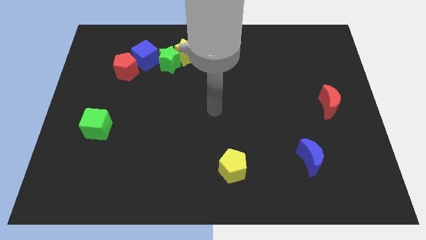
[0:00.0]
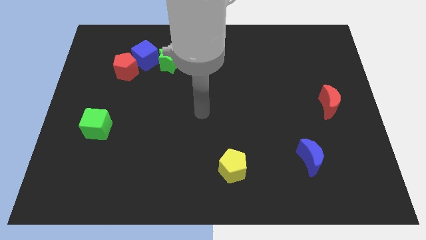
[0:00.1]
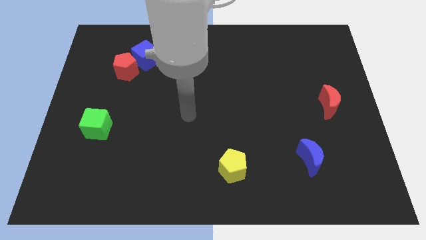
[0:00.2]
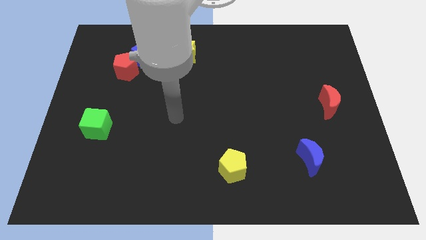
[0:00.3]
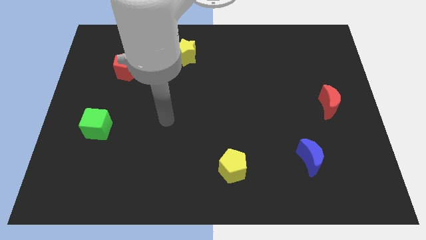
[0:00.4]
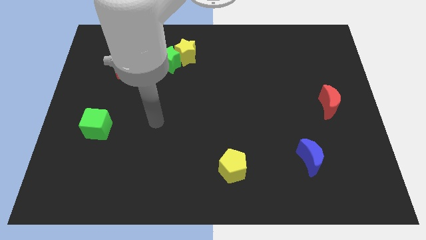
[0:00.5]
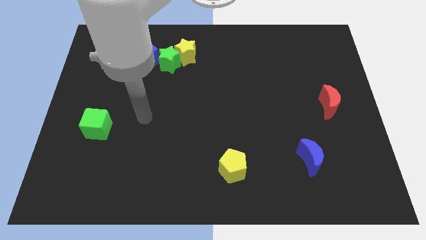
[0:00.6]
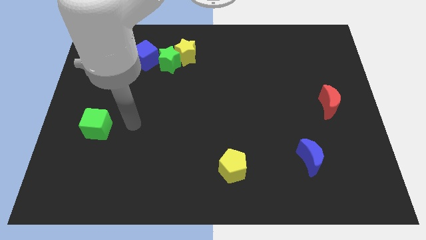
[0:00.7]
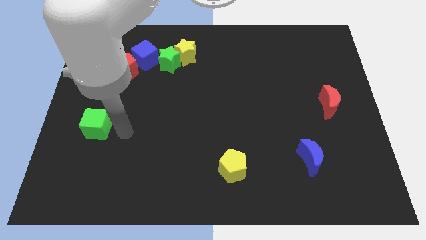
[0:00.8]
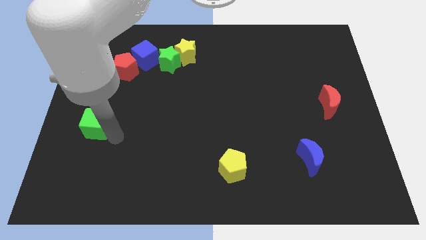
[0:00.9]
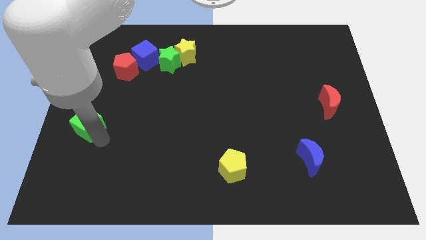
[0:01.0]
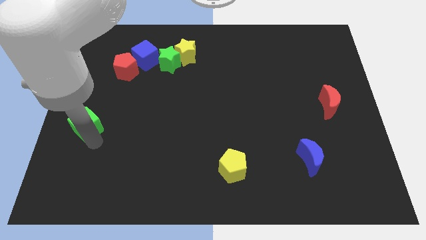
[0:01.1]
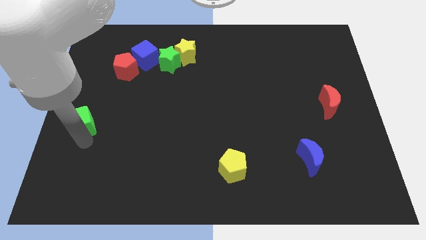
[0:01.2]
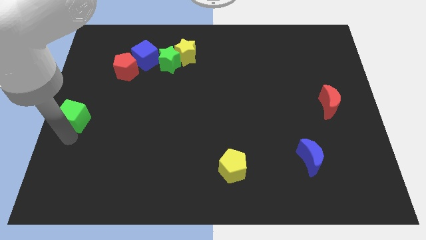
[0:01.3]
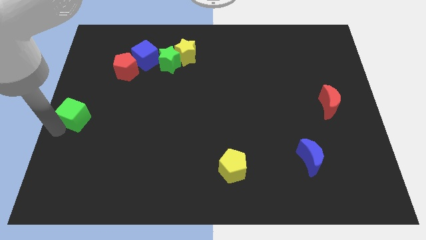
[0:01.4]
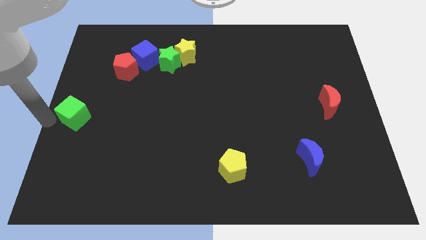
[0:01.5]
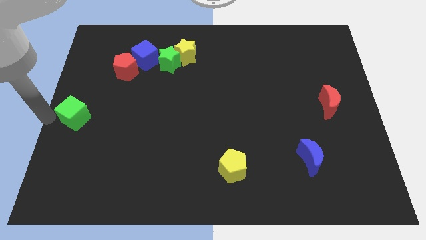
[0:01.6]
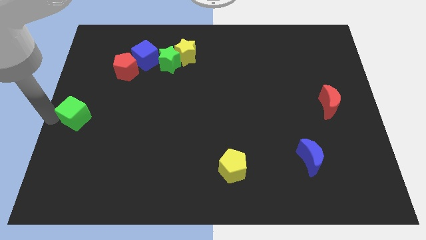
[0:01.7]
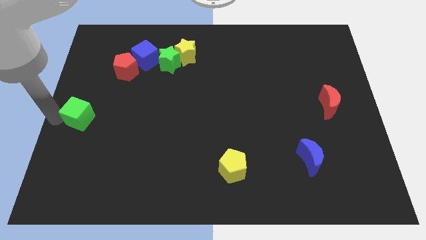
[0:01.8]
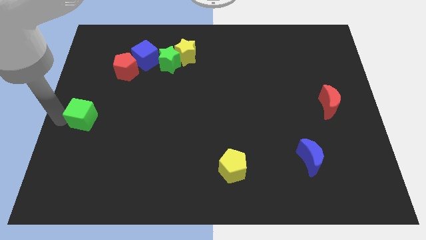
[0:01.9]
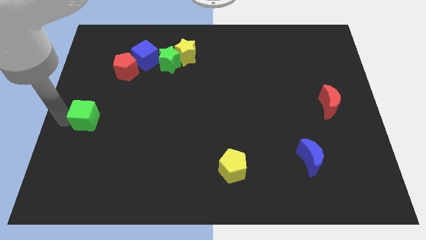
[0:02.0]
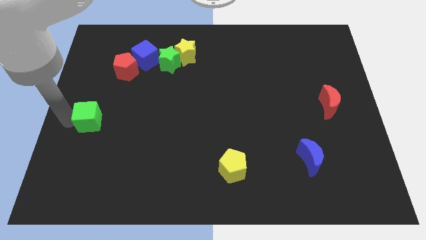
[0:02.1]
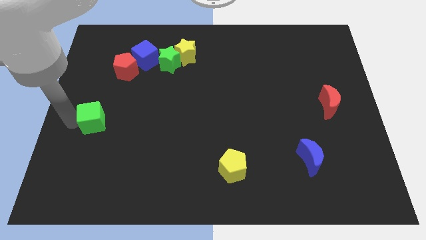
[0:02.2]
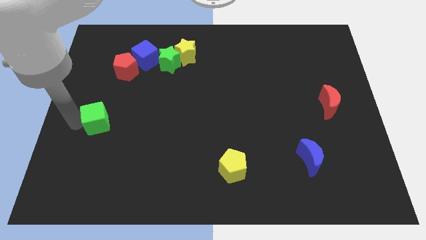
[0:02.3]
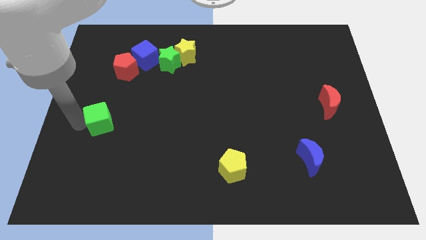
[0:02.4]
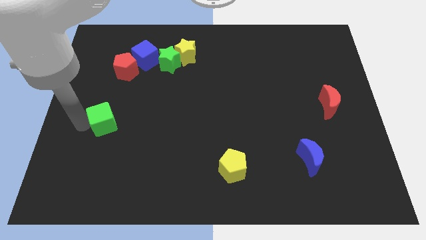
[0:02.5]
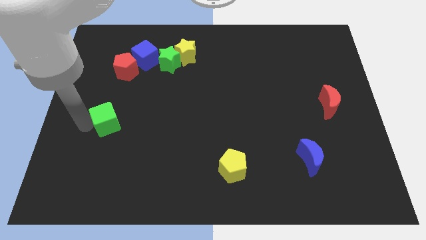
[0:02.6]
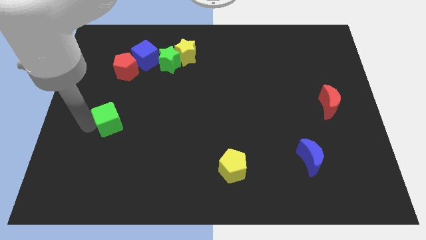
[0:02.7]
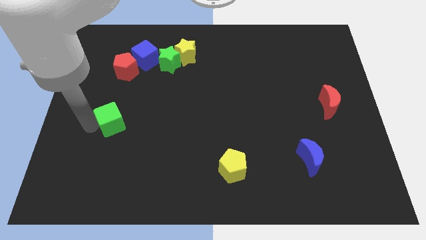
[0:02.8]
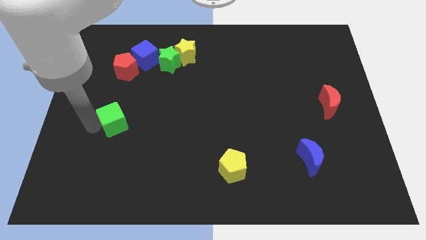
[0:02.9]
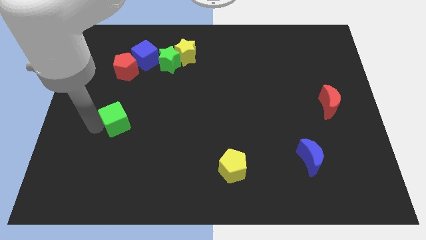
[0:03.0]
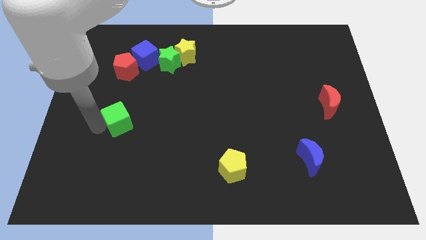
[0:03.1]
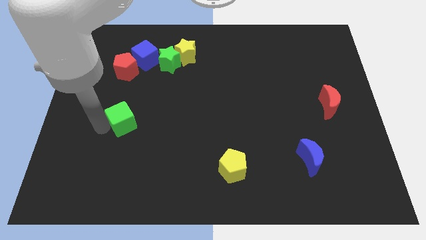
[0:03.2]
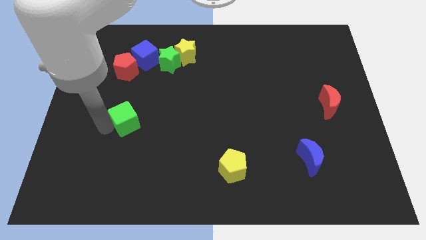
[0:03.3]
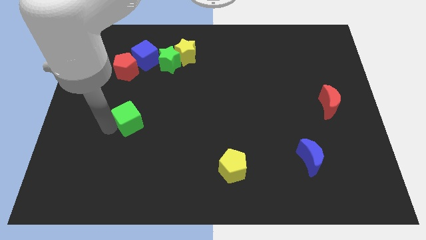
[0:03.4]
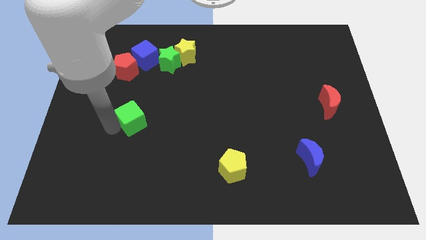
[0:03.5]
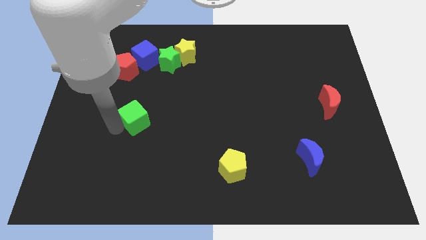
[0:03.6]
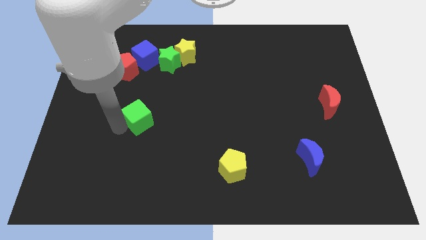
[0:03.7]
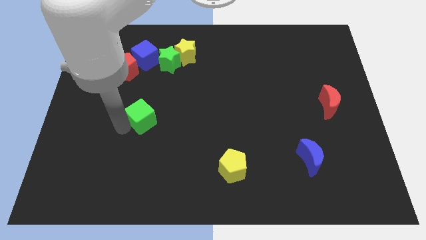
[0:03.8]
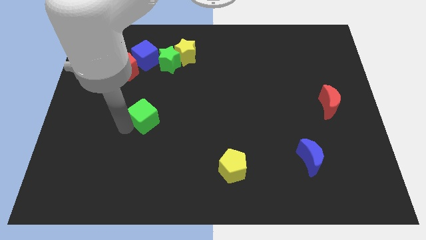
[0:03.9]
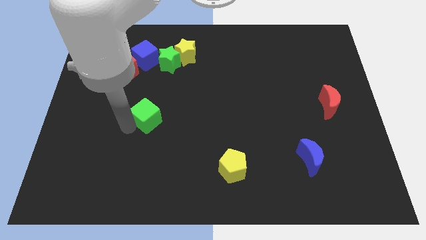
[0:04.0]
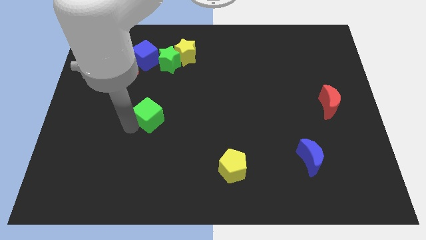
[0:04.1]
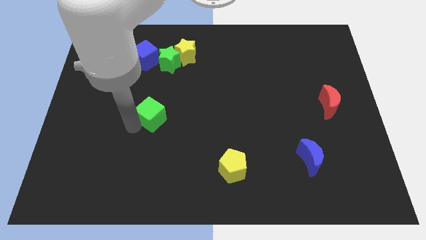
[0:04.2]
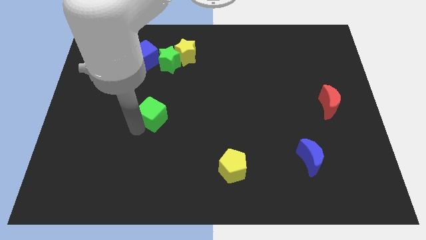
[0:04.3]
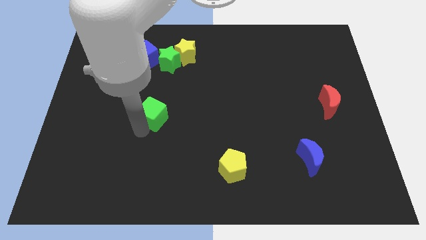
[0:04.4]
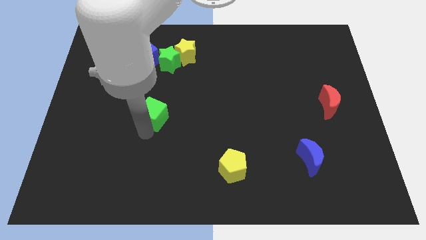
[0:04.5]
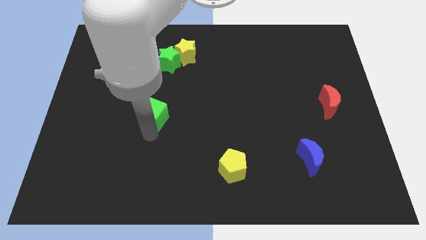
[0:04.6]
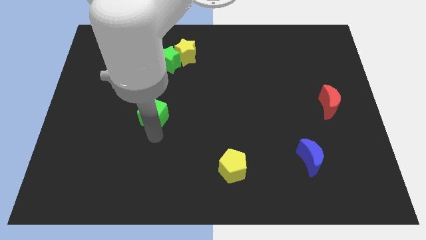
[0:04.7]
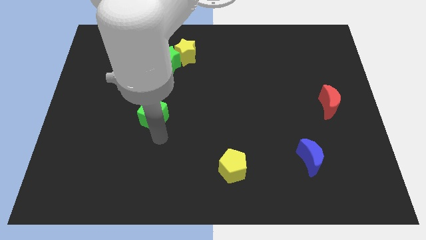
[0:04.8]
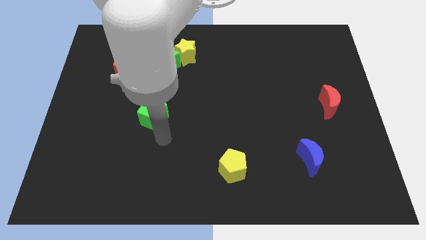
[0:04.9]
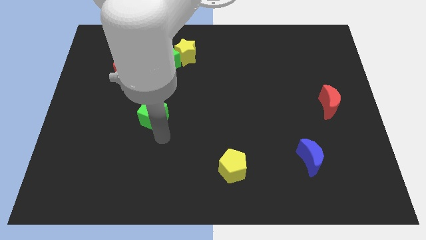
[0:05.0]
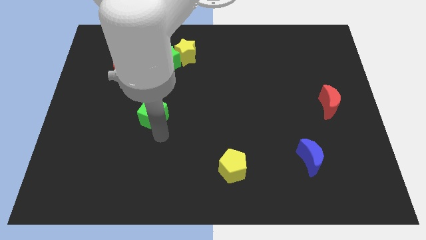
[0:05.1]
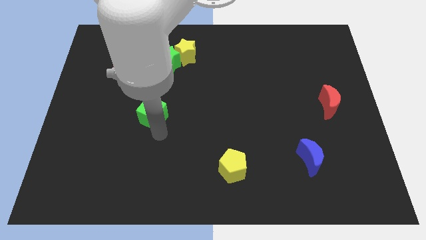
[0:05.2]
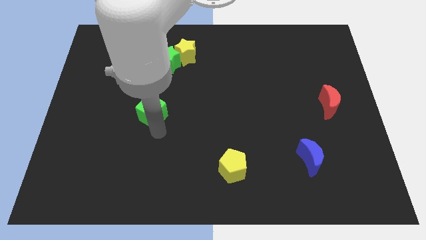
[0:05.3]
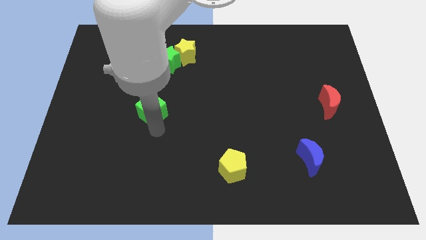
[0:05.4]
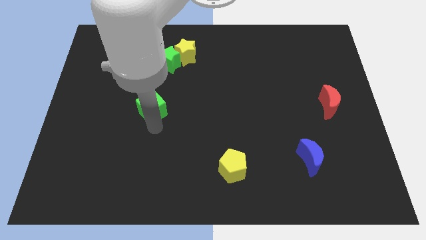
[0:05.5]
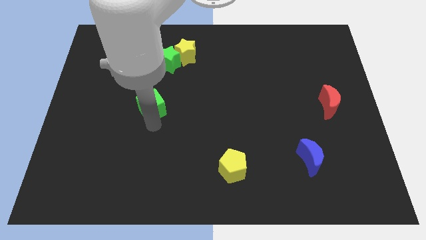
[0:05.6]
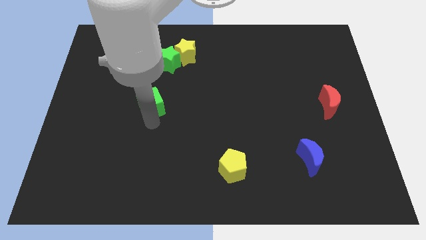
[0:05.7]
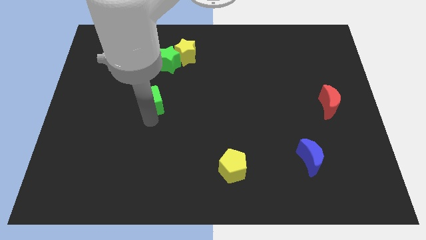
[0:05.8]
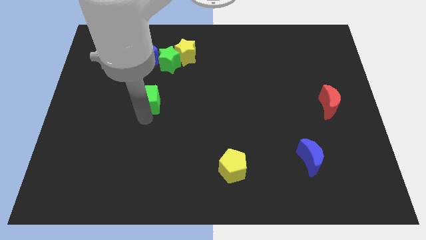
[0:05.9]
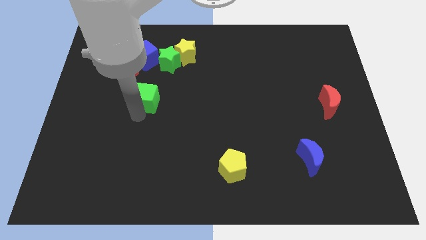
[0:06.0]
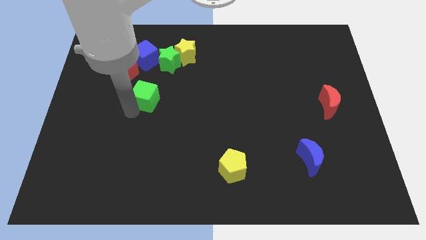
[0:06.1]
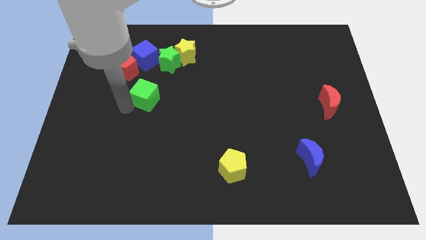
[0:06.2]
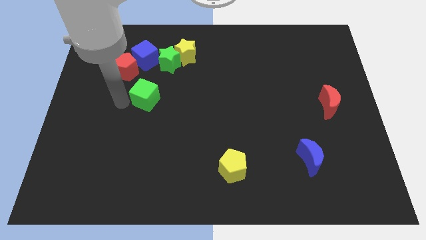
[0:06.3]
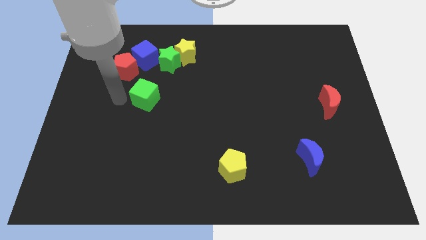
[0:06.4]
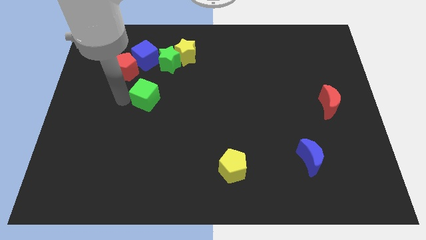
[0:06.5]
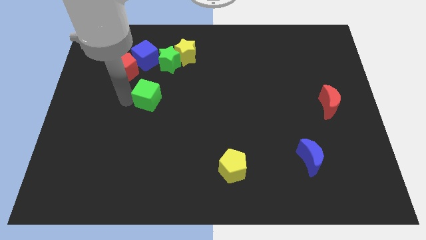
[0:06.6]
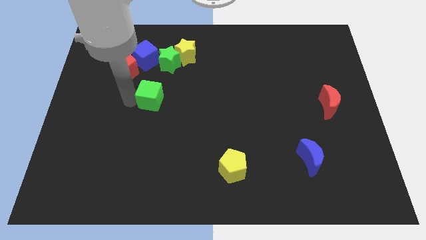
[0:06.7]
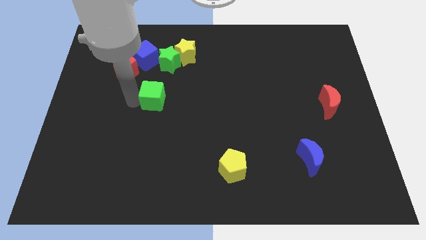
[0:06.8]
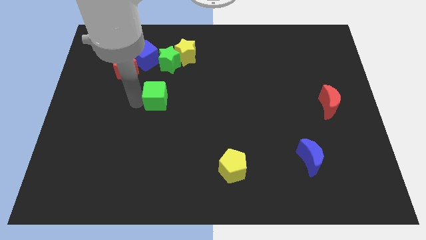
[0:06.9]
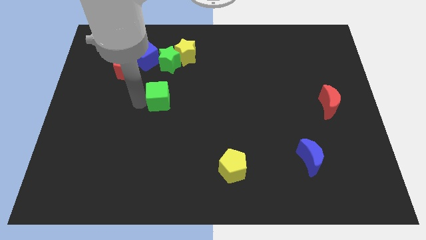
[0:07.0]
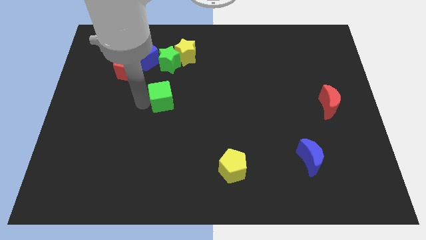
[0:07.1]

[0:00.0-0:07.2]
put the green cube to the middle of the board
